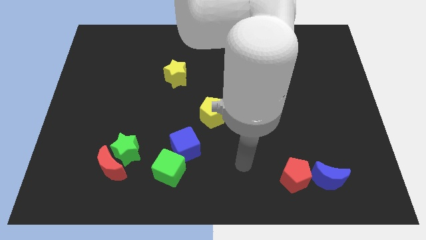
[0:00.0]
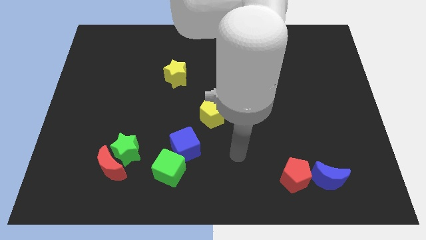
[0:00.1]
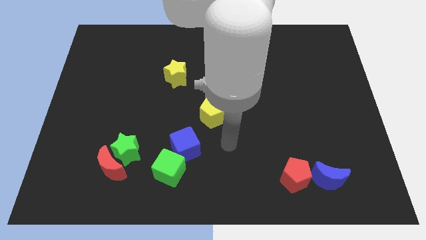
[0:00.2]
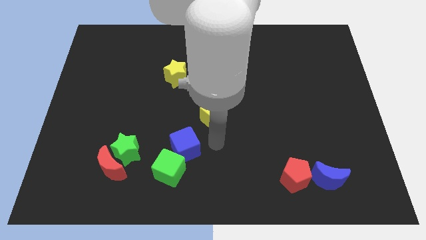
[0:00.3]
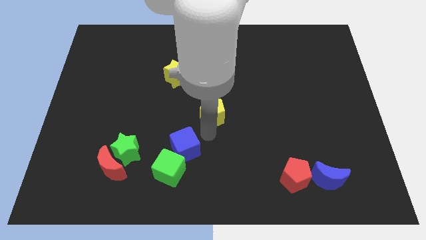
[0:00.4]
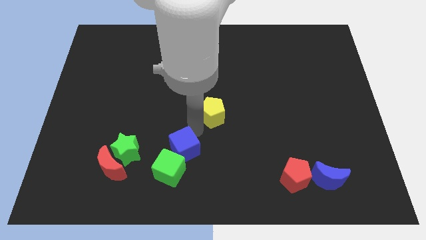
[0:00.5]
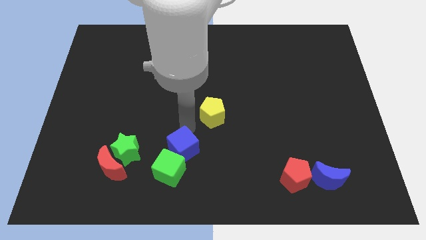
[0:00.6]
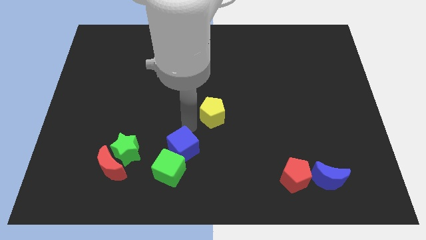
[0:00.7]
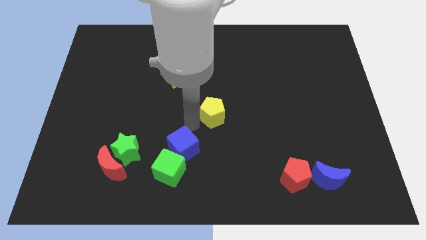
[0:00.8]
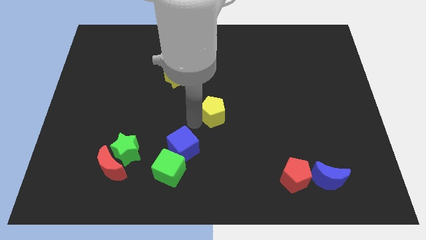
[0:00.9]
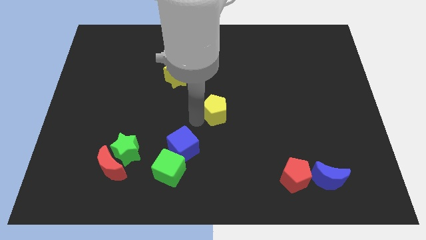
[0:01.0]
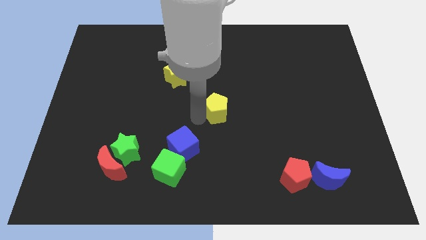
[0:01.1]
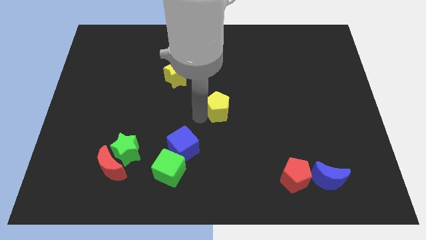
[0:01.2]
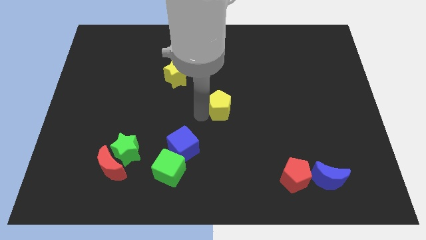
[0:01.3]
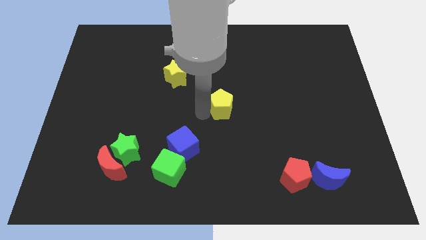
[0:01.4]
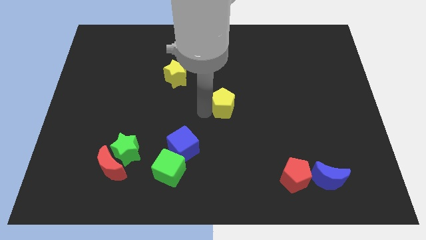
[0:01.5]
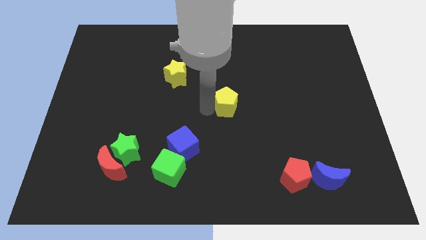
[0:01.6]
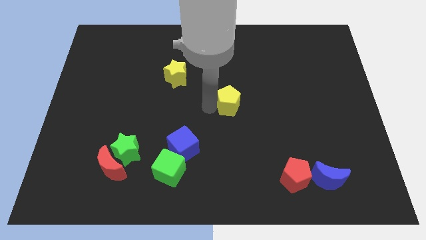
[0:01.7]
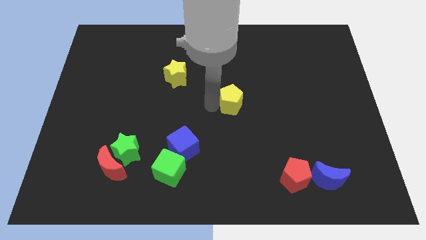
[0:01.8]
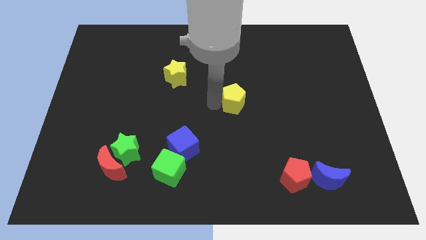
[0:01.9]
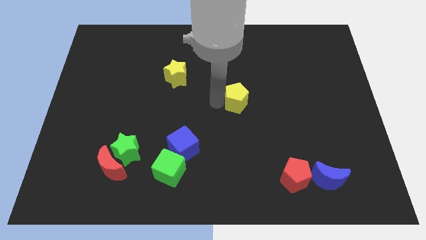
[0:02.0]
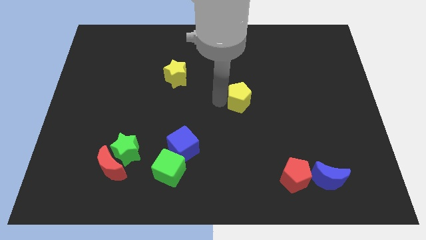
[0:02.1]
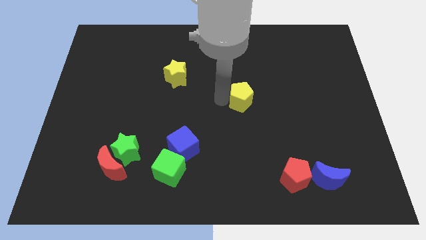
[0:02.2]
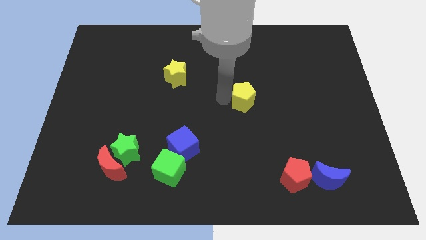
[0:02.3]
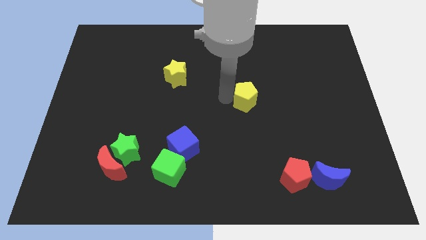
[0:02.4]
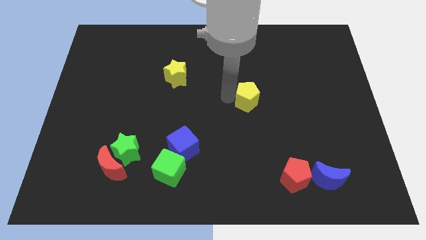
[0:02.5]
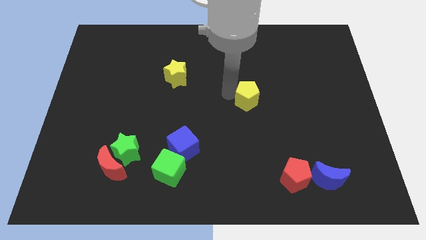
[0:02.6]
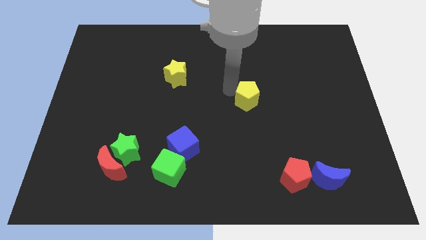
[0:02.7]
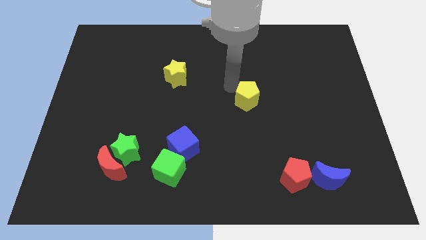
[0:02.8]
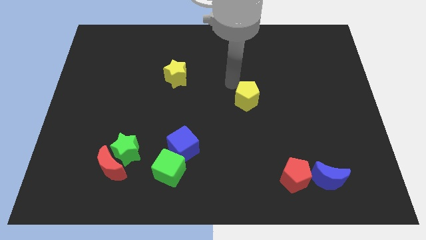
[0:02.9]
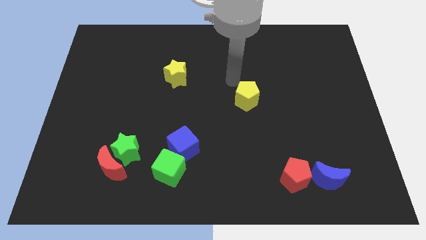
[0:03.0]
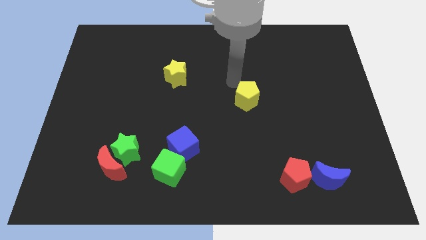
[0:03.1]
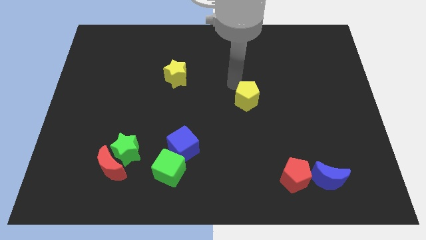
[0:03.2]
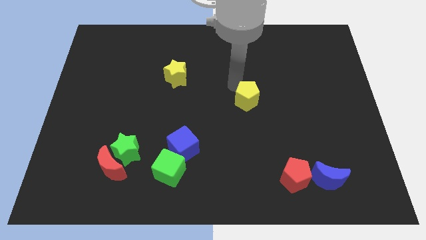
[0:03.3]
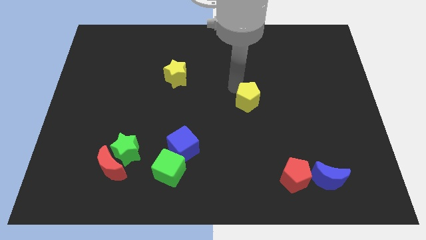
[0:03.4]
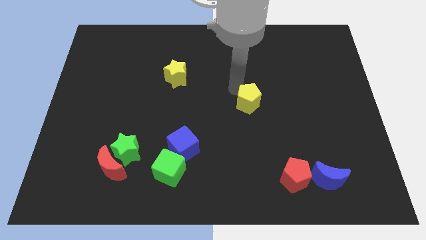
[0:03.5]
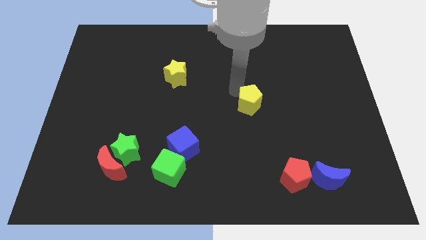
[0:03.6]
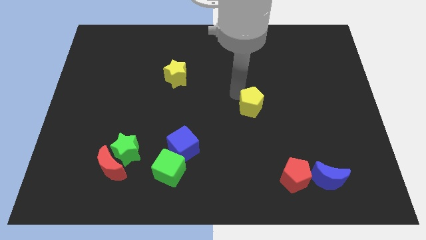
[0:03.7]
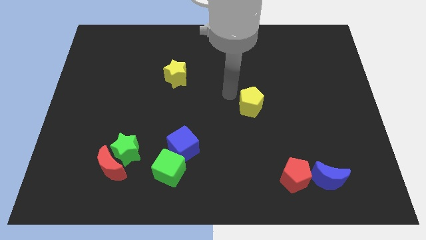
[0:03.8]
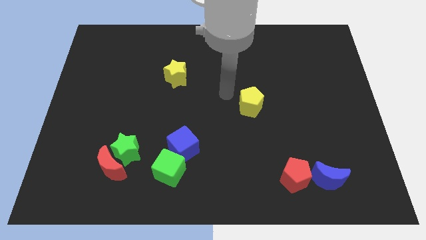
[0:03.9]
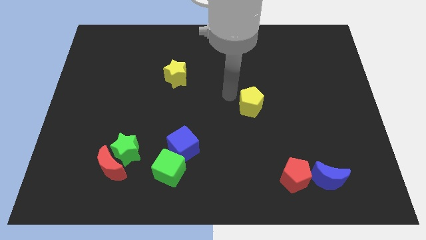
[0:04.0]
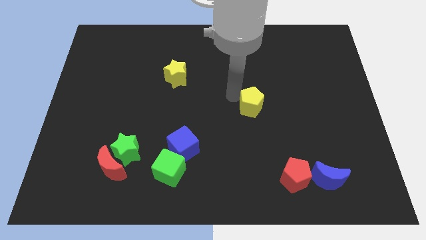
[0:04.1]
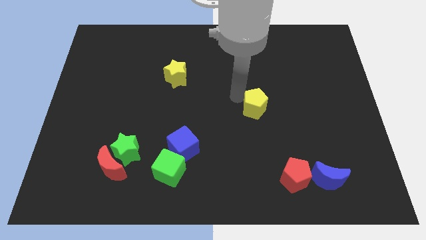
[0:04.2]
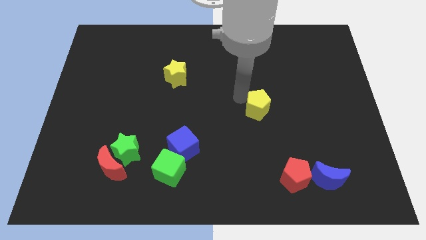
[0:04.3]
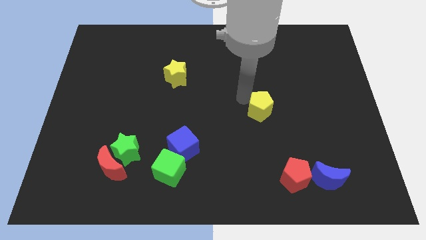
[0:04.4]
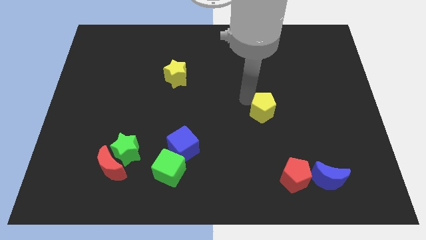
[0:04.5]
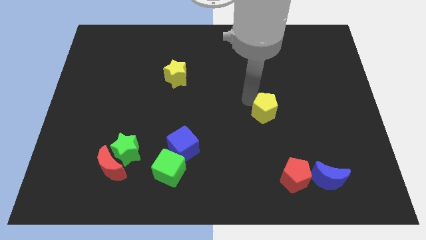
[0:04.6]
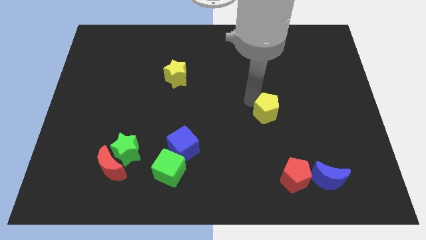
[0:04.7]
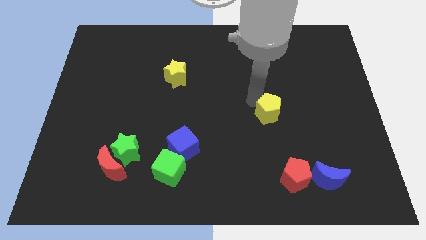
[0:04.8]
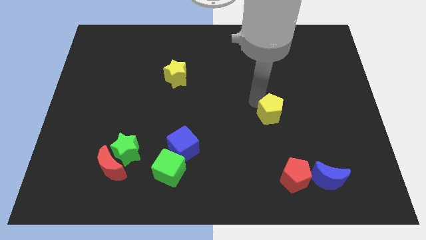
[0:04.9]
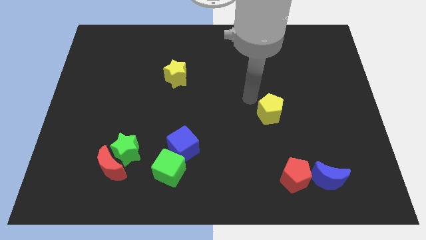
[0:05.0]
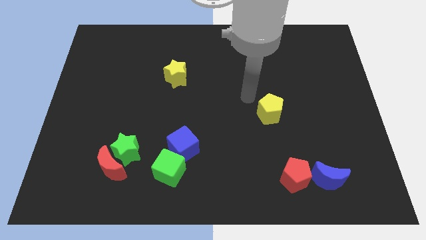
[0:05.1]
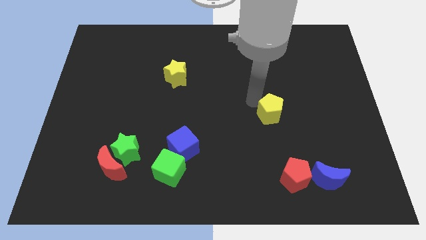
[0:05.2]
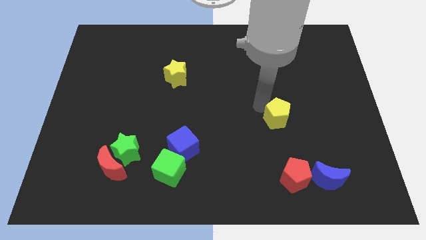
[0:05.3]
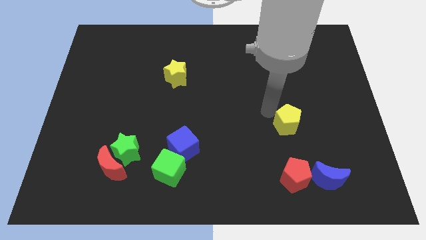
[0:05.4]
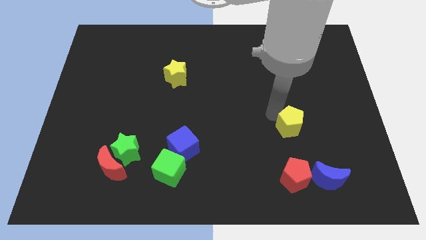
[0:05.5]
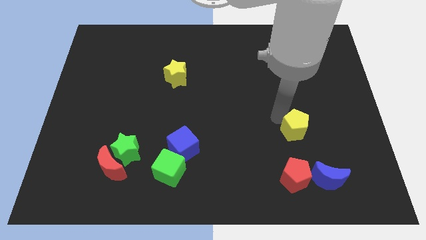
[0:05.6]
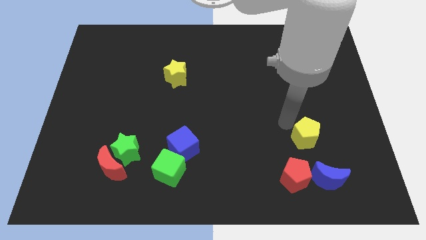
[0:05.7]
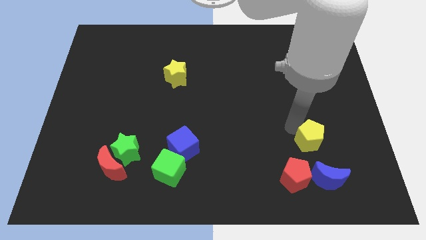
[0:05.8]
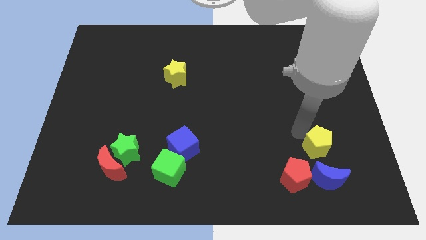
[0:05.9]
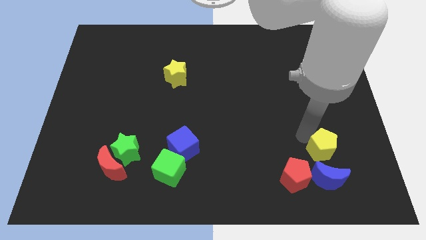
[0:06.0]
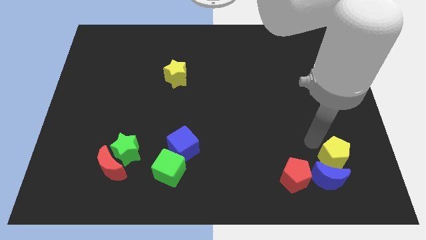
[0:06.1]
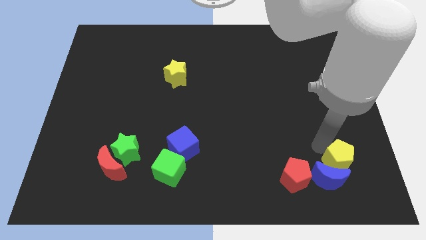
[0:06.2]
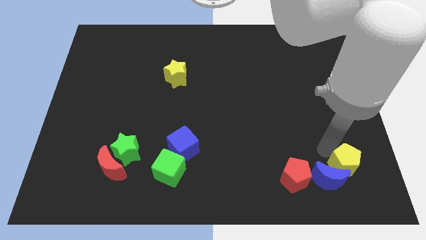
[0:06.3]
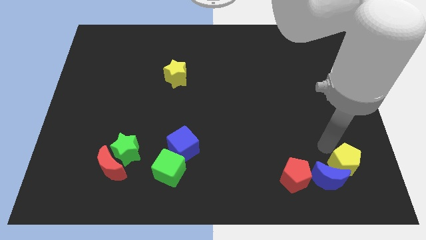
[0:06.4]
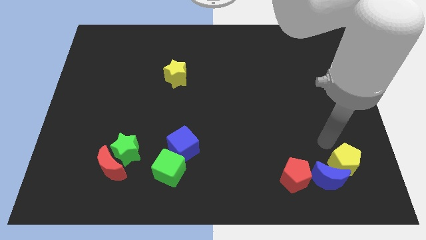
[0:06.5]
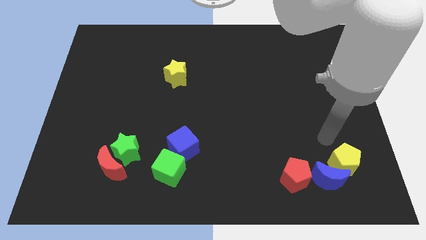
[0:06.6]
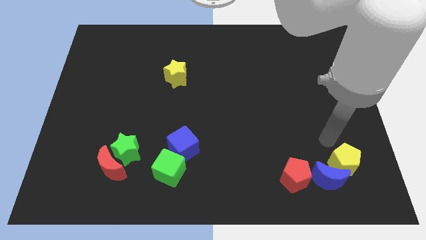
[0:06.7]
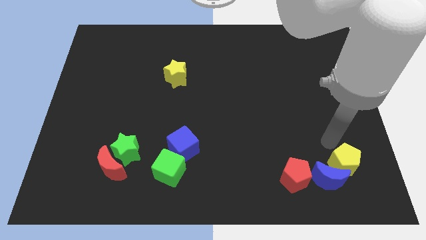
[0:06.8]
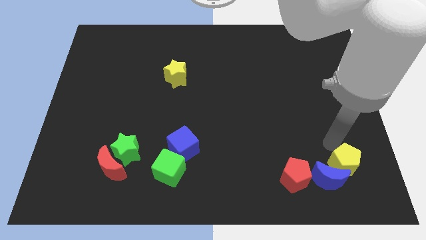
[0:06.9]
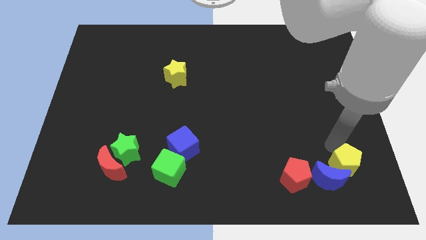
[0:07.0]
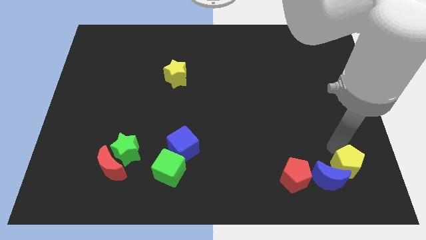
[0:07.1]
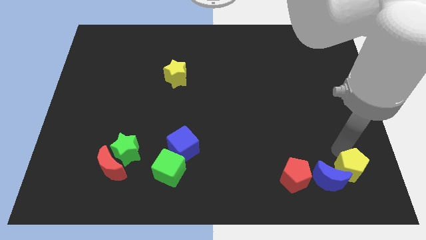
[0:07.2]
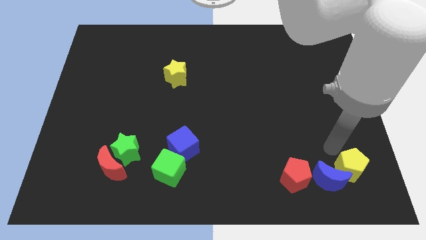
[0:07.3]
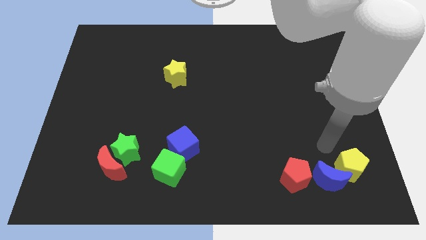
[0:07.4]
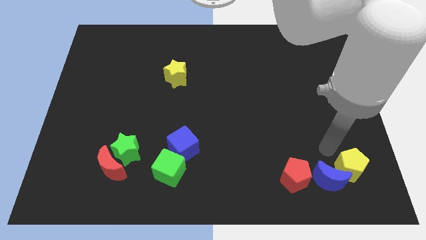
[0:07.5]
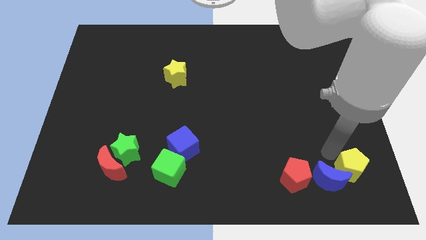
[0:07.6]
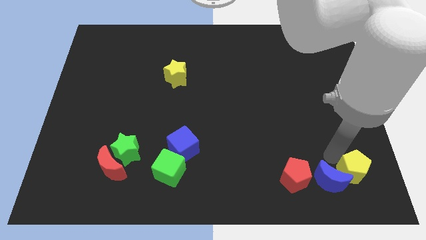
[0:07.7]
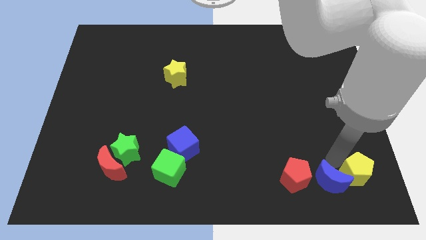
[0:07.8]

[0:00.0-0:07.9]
put the yellow pentagon to the bottom right of the board
